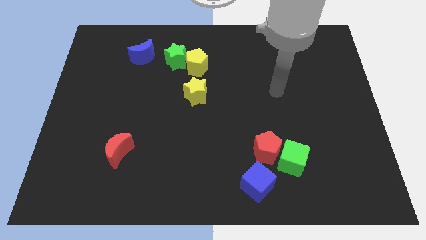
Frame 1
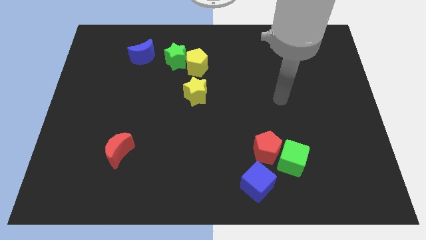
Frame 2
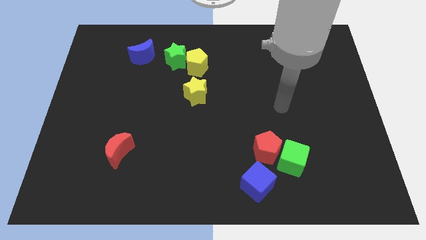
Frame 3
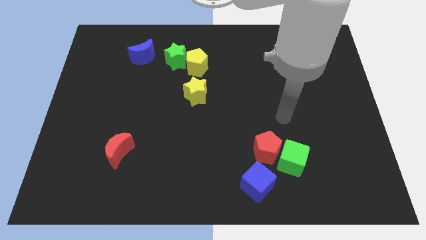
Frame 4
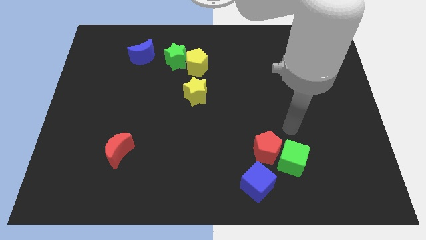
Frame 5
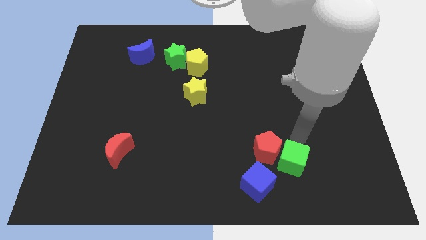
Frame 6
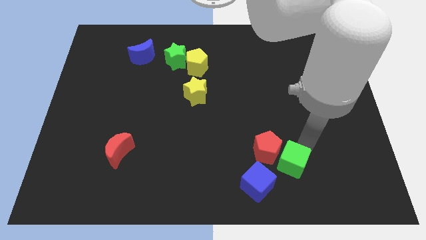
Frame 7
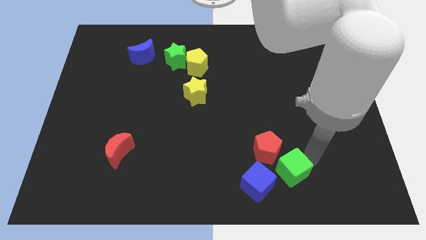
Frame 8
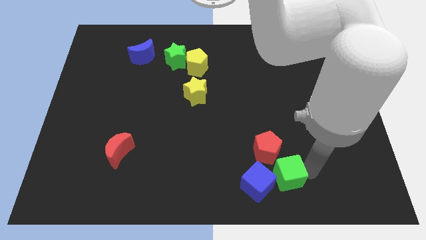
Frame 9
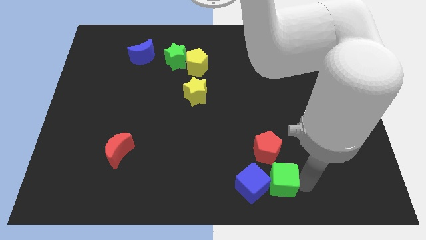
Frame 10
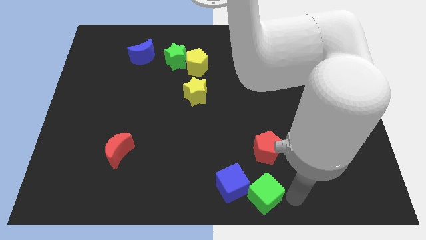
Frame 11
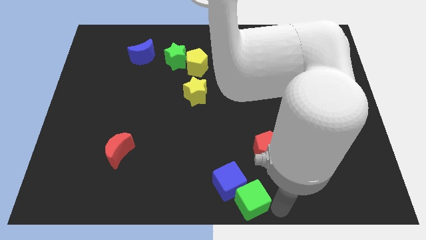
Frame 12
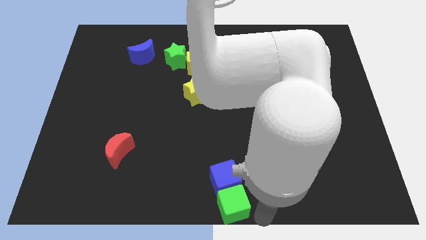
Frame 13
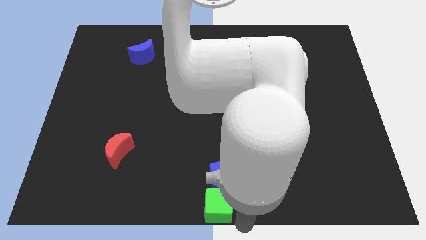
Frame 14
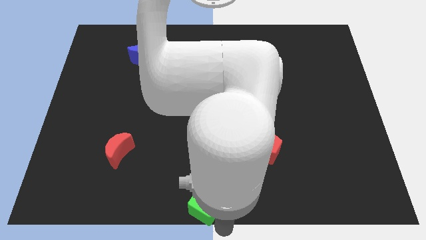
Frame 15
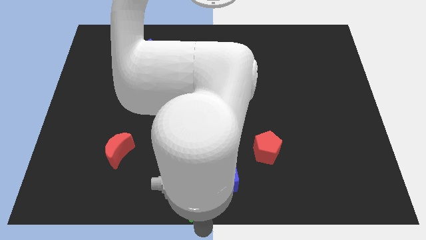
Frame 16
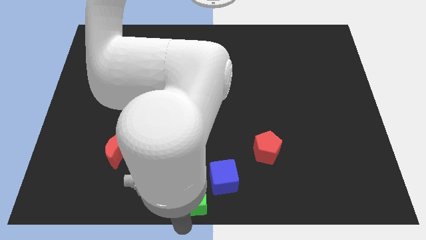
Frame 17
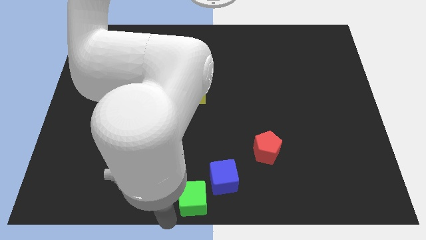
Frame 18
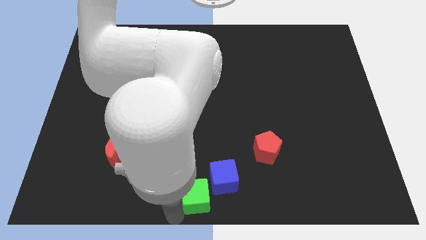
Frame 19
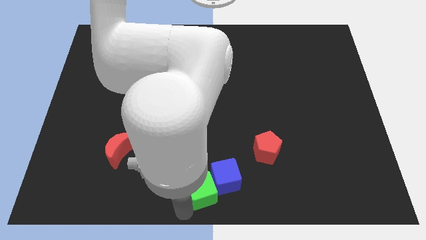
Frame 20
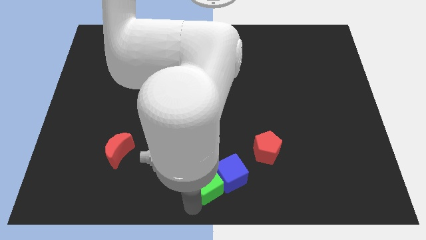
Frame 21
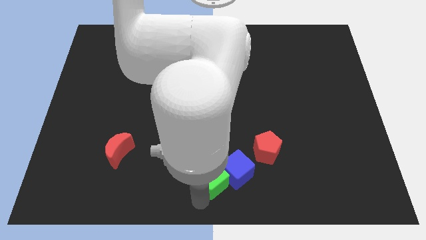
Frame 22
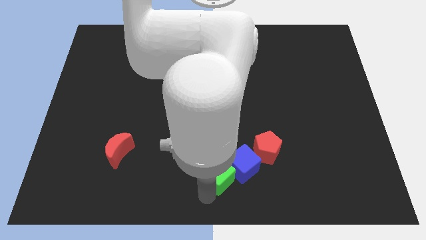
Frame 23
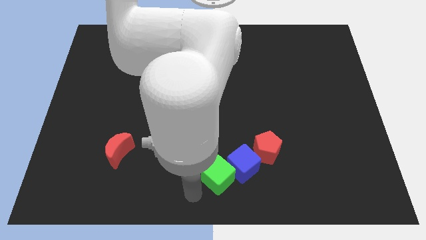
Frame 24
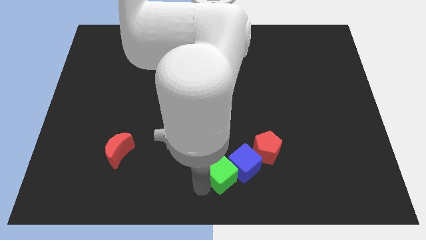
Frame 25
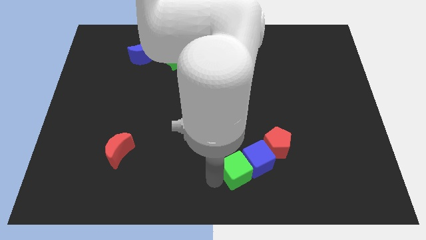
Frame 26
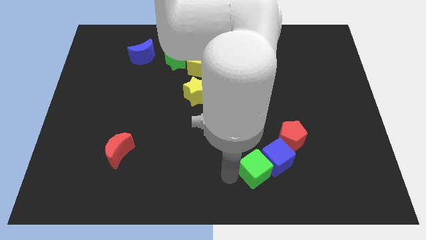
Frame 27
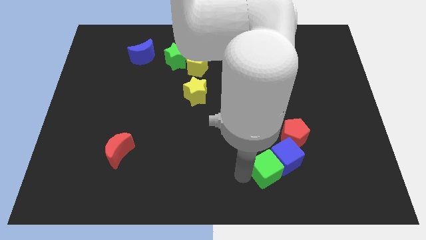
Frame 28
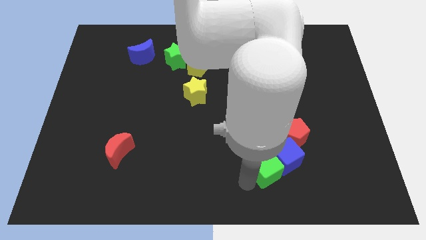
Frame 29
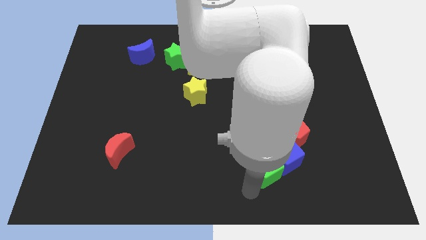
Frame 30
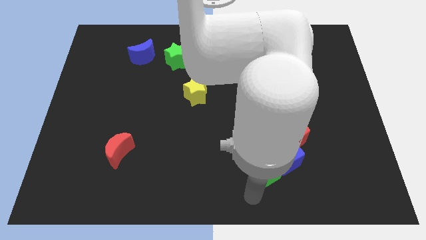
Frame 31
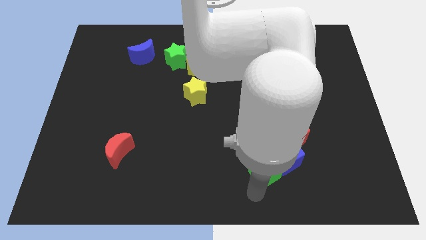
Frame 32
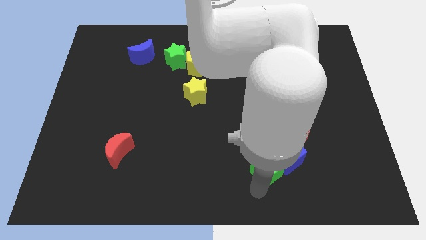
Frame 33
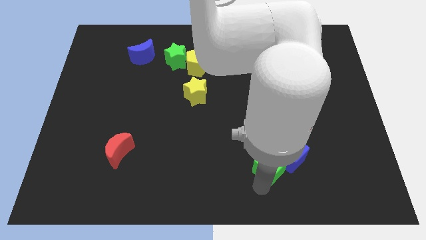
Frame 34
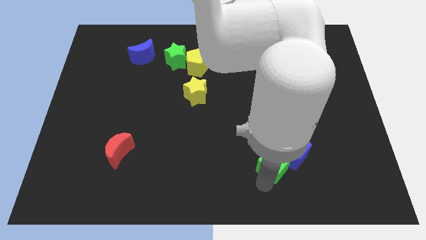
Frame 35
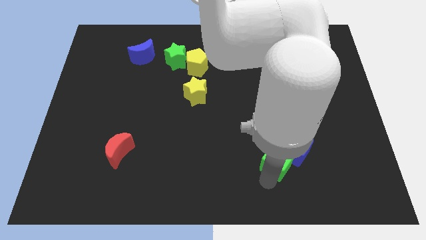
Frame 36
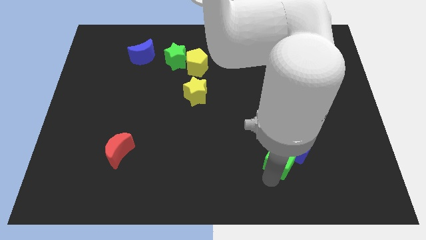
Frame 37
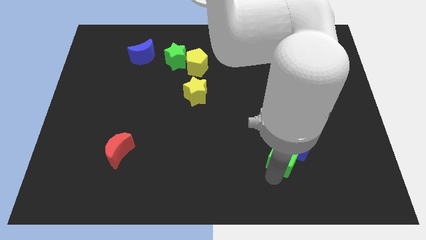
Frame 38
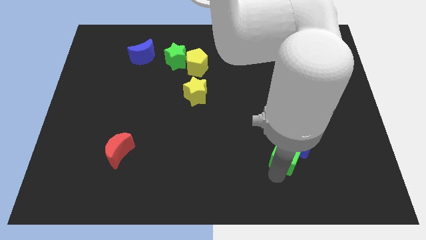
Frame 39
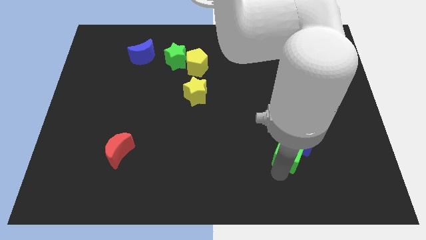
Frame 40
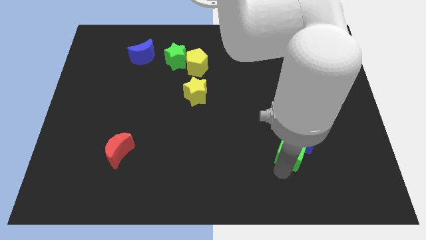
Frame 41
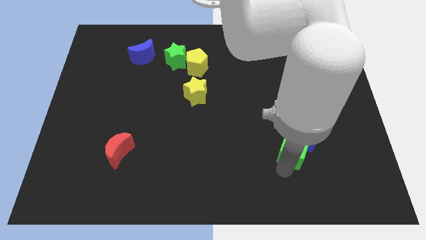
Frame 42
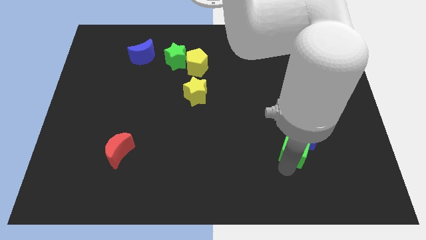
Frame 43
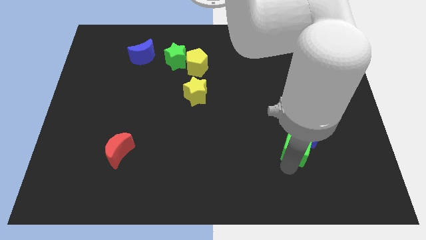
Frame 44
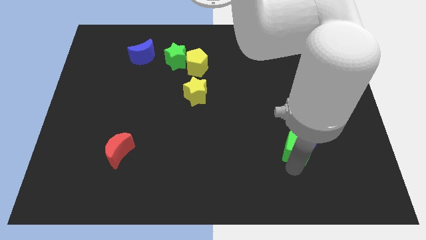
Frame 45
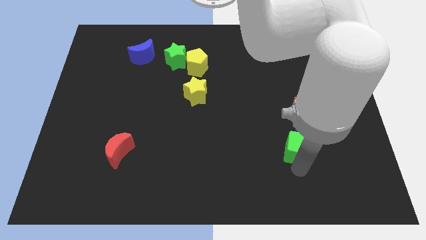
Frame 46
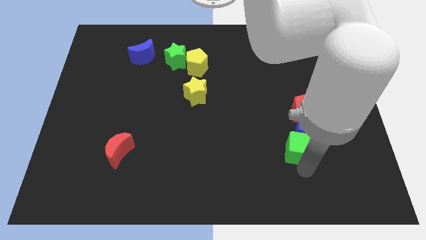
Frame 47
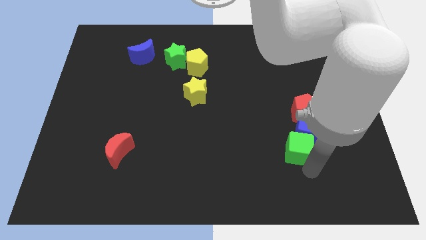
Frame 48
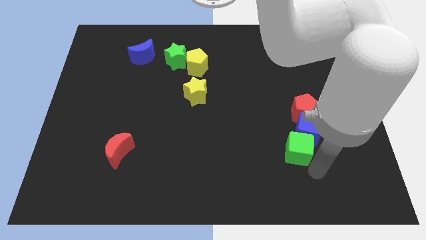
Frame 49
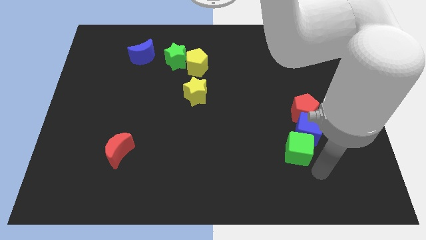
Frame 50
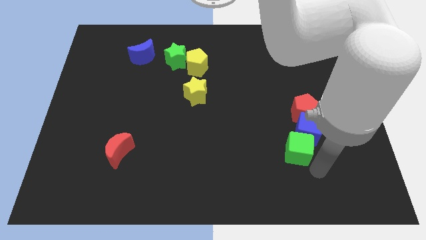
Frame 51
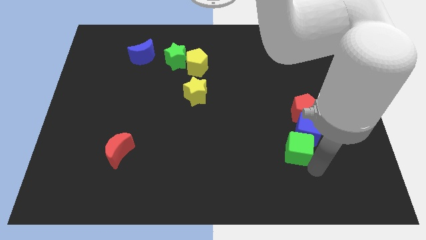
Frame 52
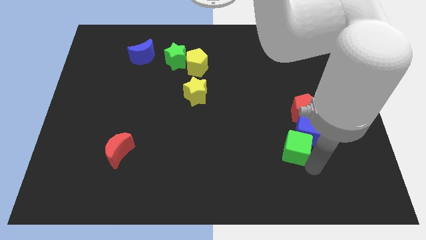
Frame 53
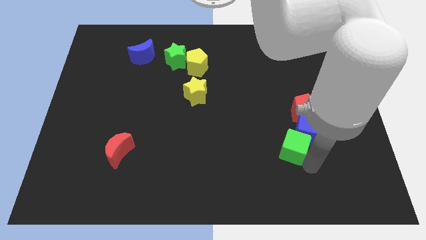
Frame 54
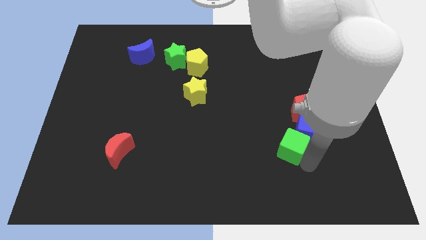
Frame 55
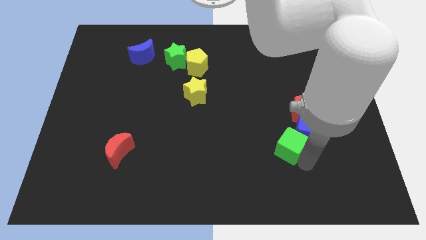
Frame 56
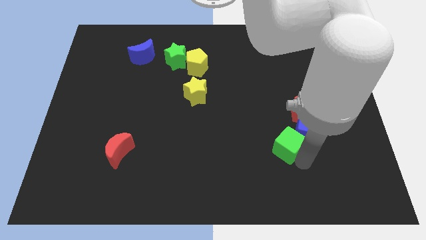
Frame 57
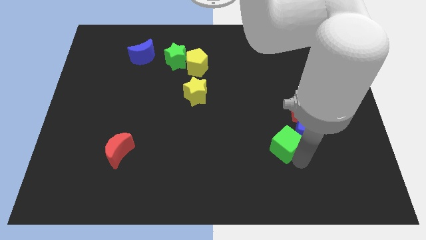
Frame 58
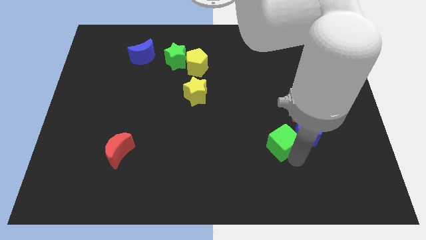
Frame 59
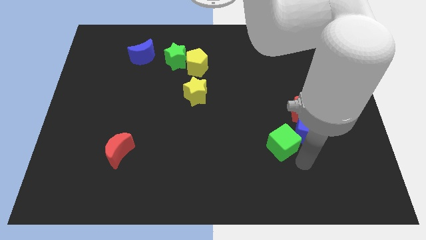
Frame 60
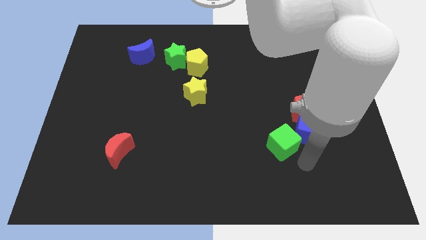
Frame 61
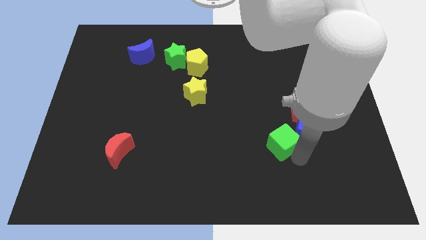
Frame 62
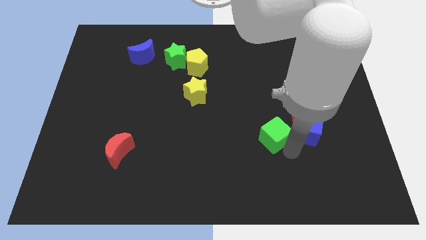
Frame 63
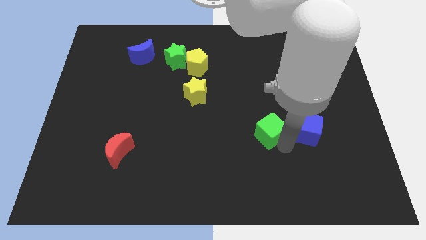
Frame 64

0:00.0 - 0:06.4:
slide the green cube slightly upwards and left

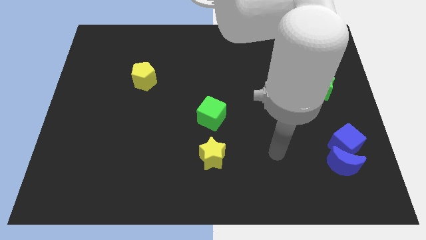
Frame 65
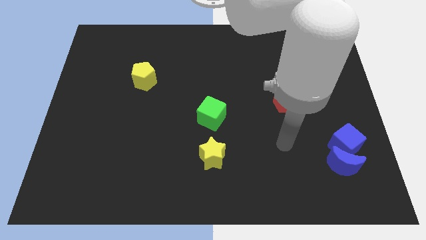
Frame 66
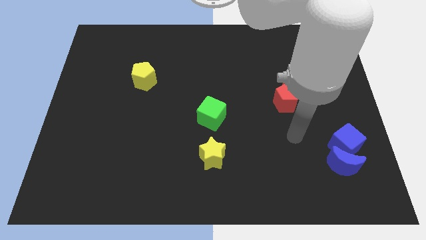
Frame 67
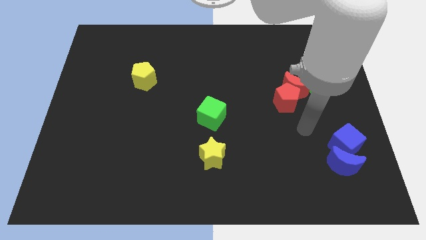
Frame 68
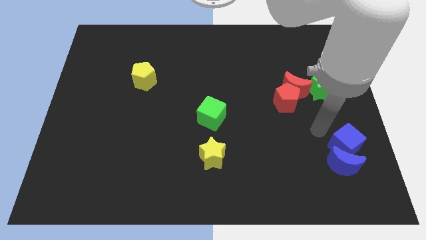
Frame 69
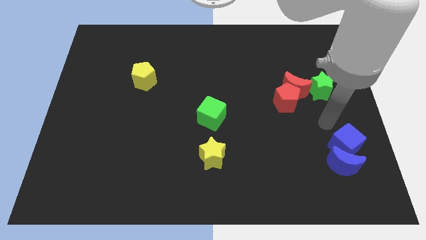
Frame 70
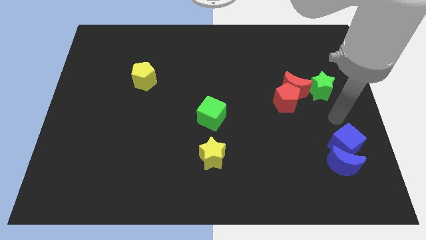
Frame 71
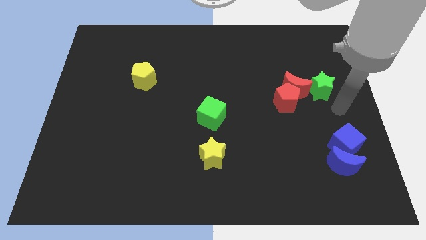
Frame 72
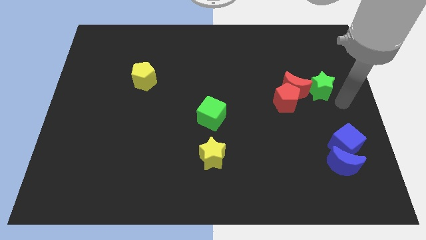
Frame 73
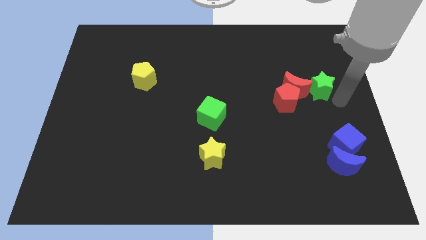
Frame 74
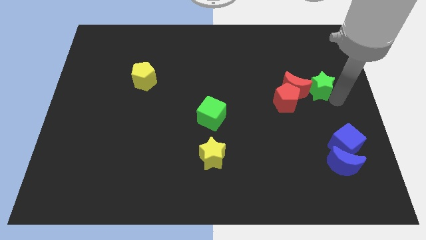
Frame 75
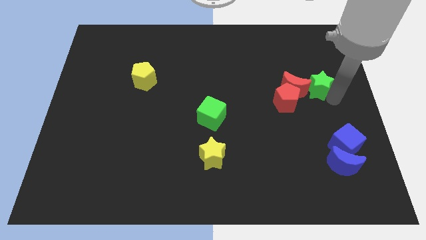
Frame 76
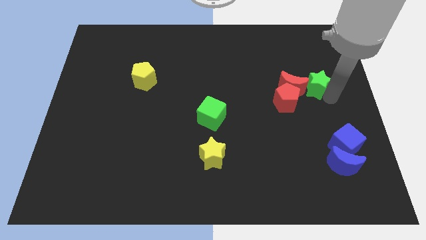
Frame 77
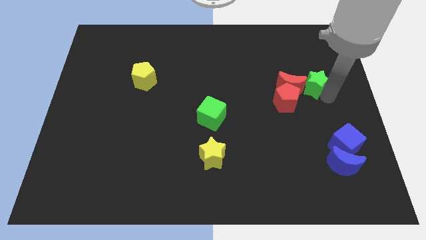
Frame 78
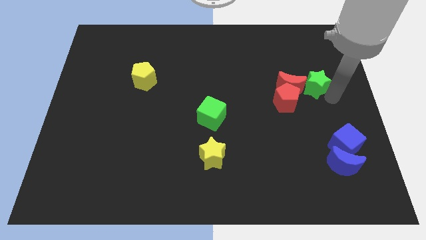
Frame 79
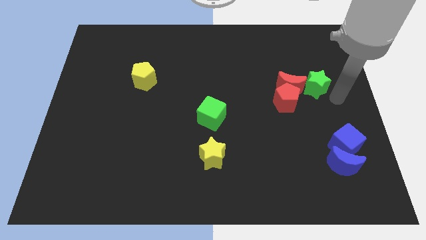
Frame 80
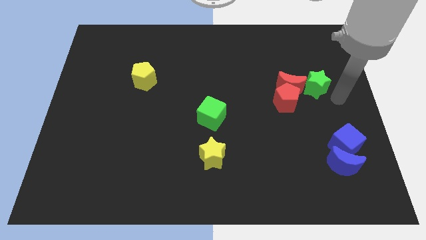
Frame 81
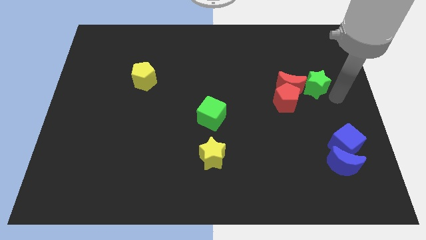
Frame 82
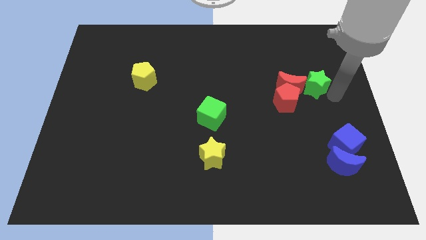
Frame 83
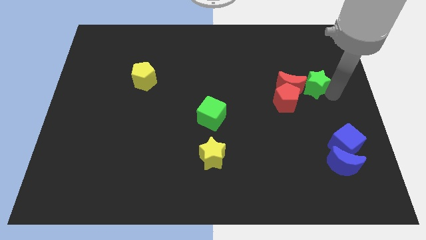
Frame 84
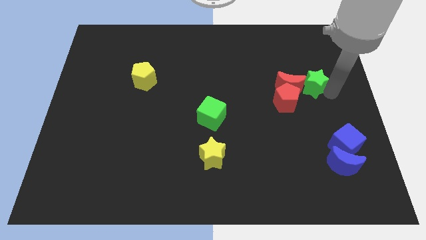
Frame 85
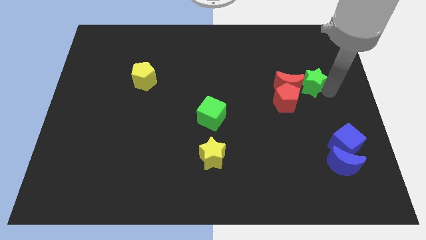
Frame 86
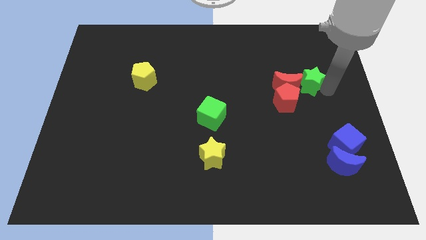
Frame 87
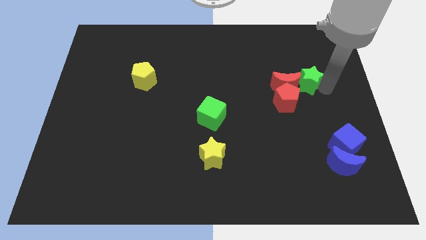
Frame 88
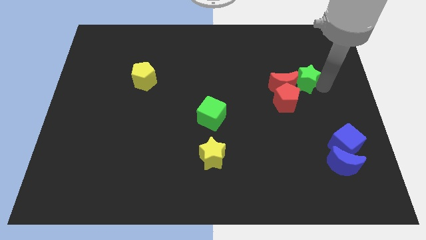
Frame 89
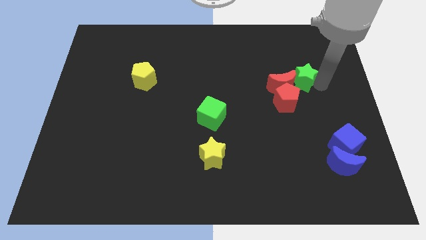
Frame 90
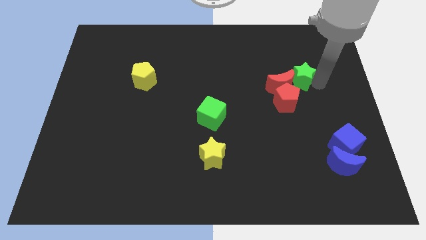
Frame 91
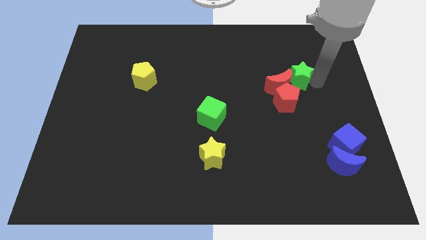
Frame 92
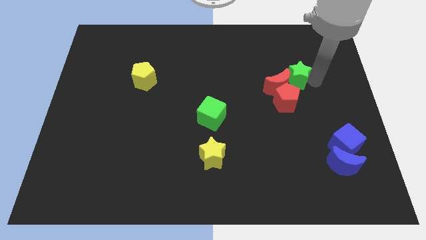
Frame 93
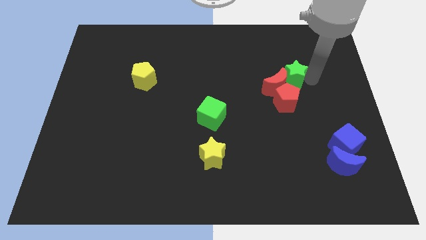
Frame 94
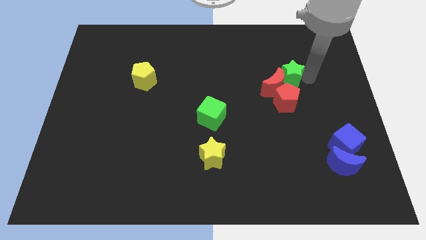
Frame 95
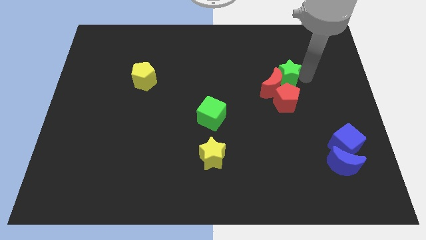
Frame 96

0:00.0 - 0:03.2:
push the green star slightly to the left
